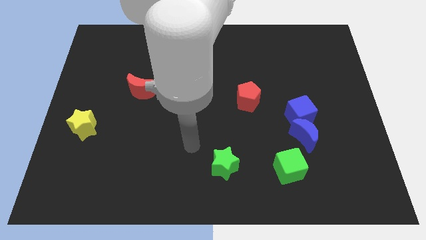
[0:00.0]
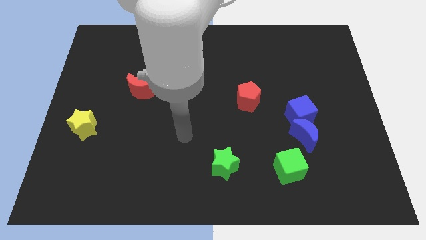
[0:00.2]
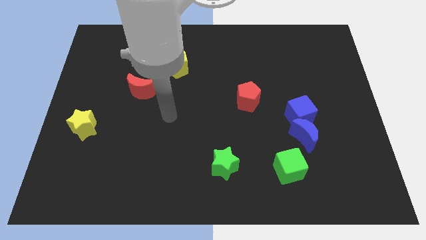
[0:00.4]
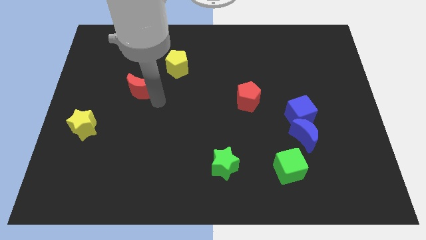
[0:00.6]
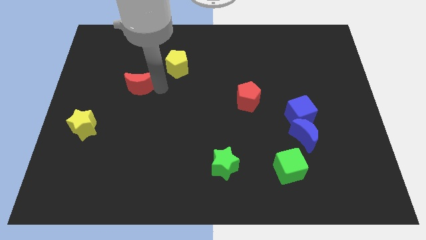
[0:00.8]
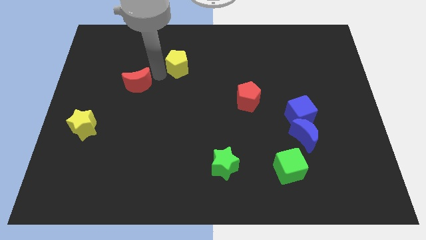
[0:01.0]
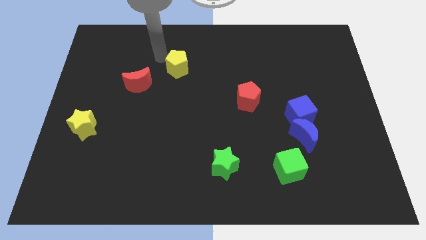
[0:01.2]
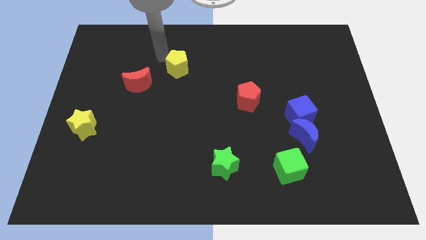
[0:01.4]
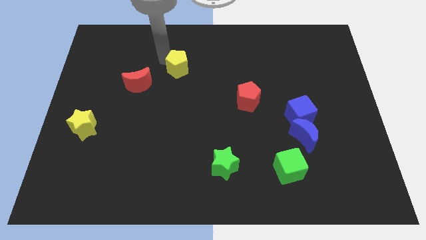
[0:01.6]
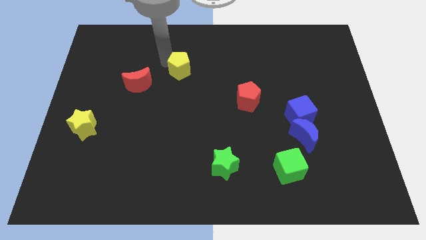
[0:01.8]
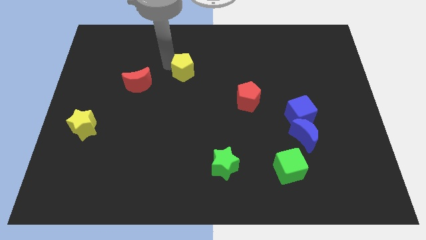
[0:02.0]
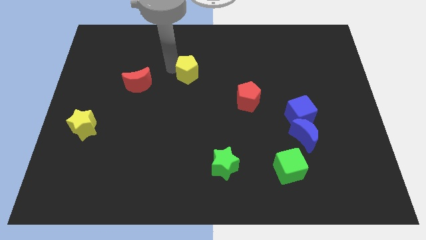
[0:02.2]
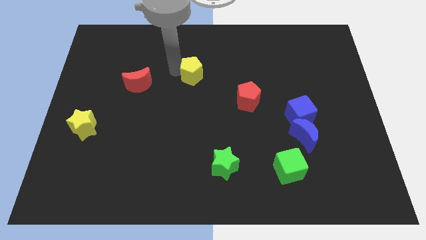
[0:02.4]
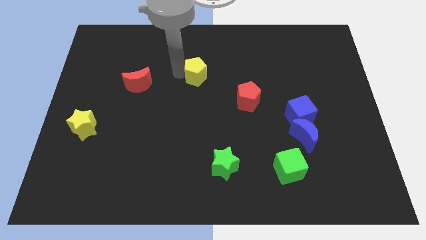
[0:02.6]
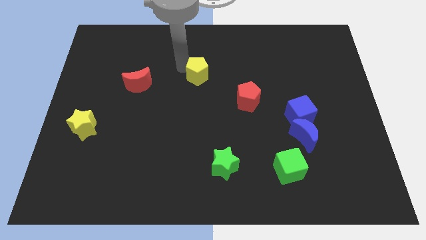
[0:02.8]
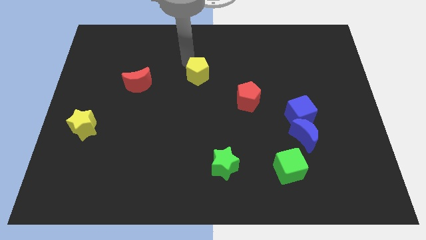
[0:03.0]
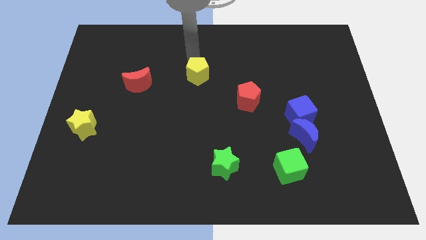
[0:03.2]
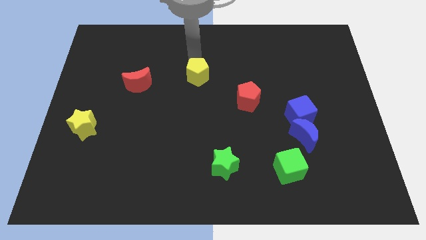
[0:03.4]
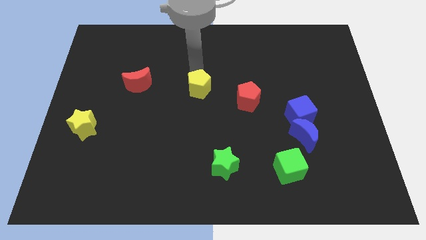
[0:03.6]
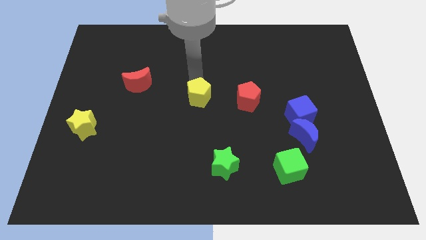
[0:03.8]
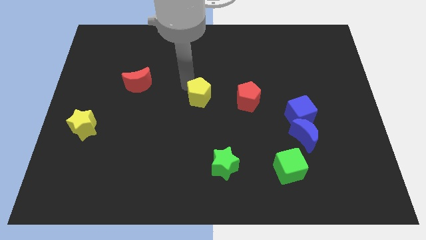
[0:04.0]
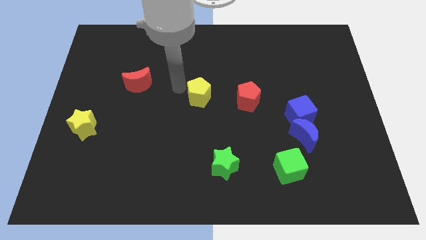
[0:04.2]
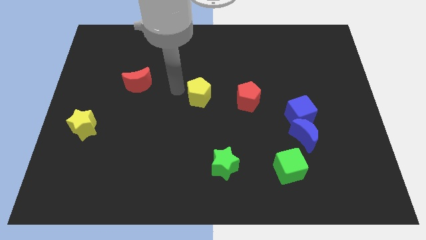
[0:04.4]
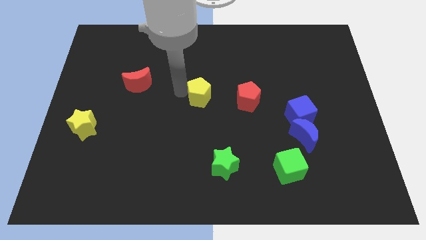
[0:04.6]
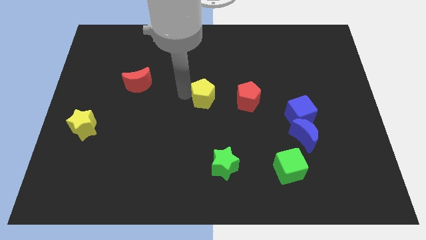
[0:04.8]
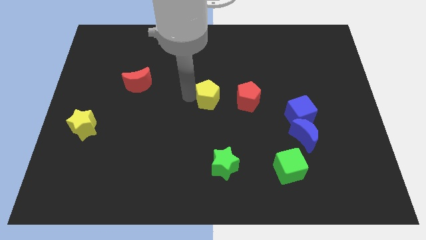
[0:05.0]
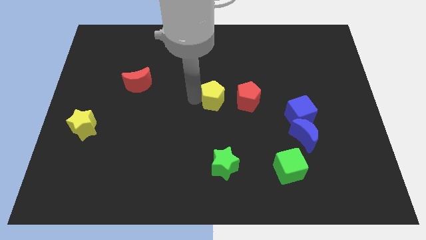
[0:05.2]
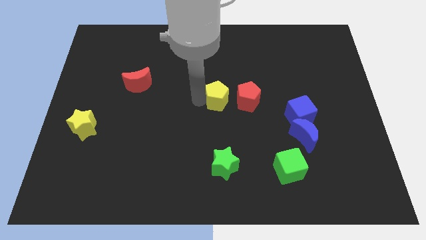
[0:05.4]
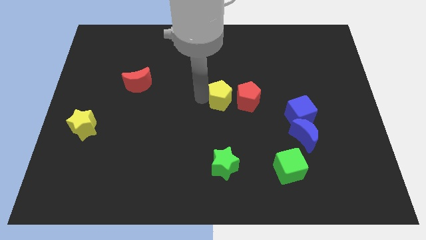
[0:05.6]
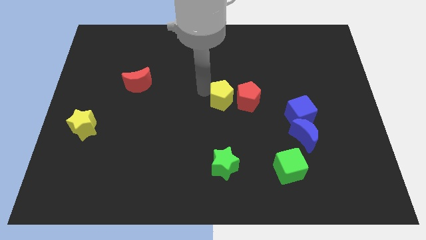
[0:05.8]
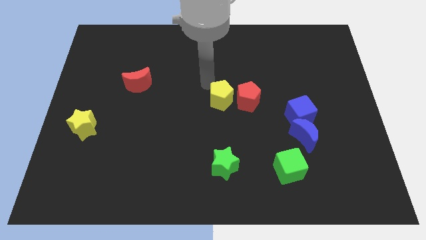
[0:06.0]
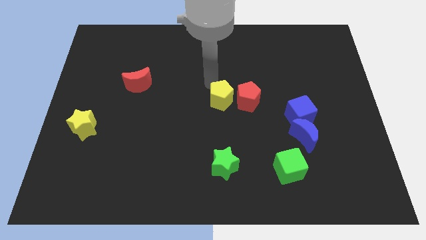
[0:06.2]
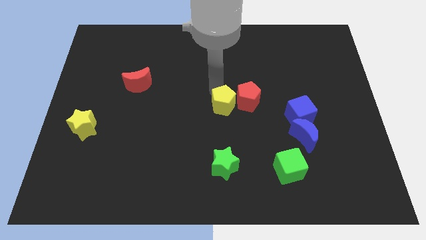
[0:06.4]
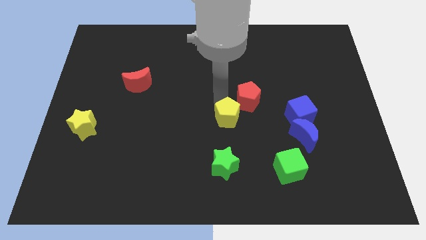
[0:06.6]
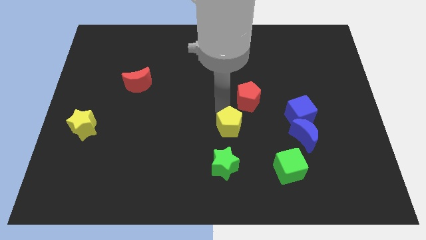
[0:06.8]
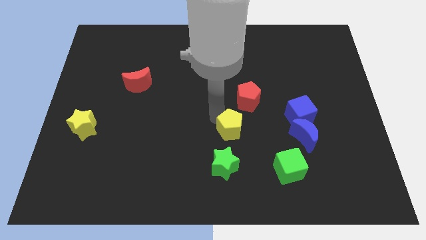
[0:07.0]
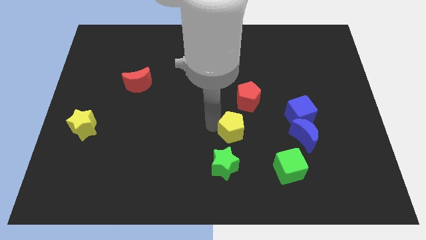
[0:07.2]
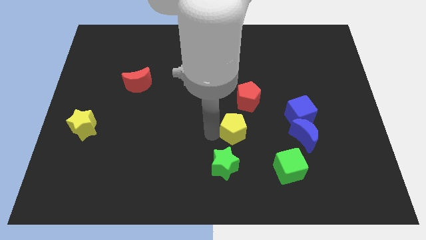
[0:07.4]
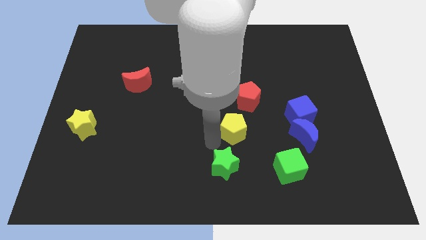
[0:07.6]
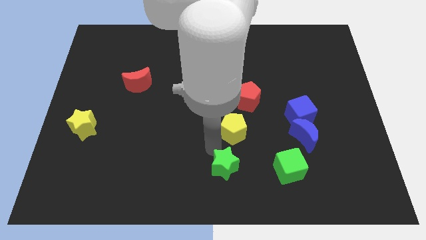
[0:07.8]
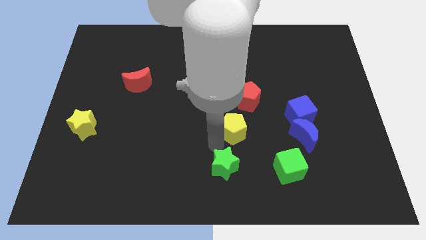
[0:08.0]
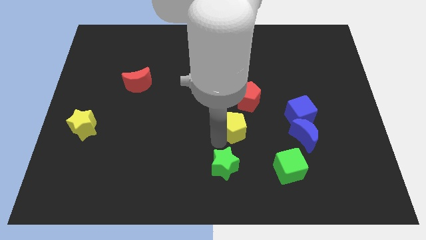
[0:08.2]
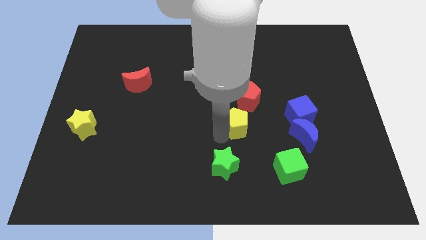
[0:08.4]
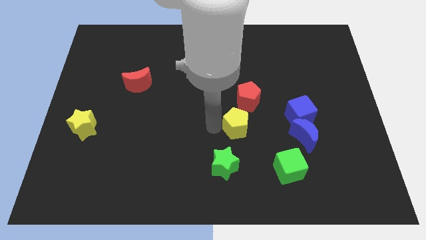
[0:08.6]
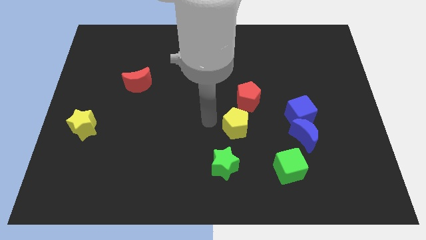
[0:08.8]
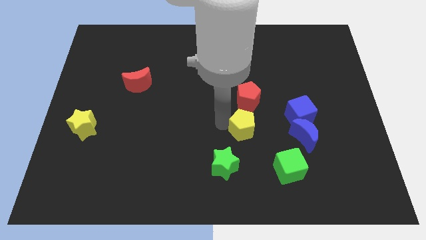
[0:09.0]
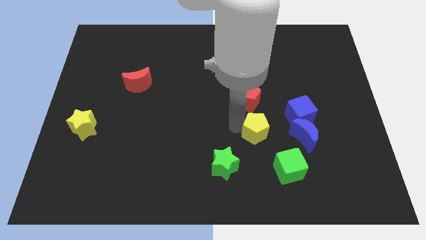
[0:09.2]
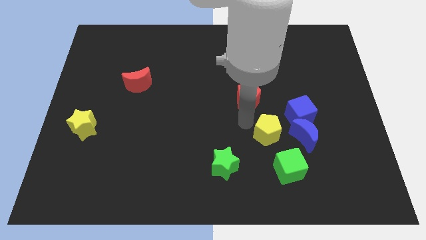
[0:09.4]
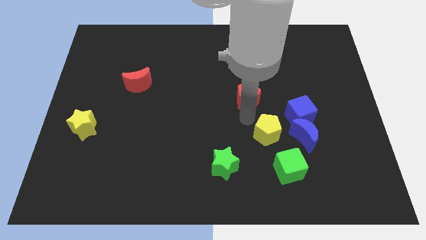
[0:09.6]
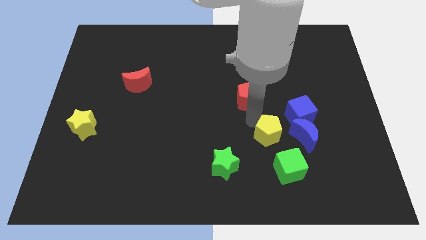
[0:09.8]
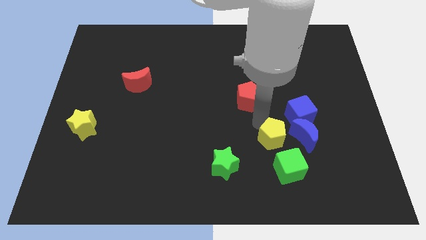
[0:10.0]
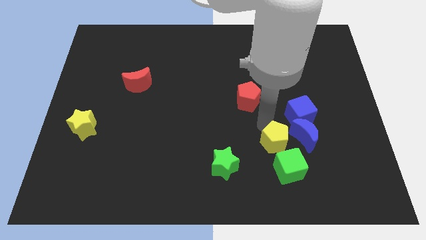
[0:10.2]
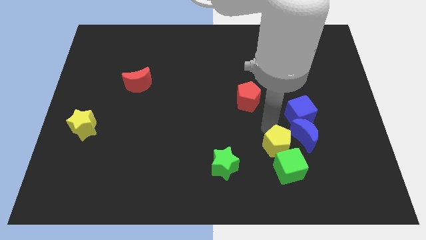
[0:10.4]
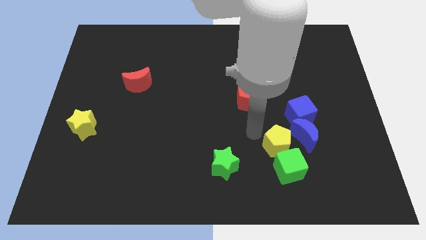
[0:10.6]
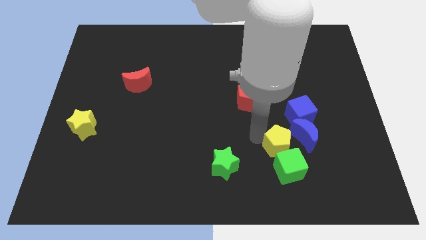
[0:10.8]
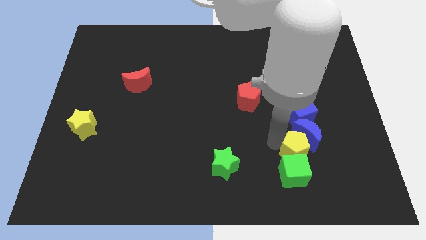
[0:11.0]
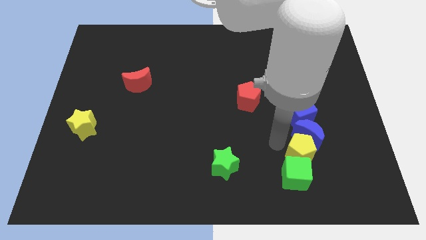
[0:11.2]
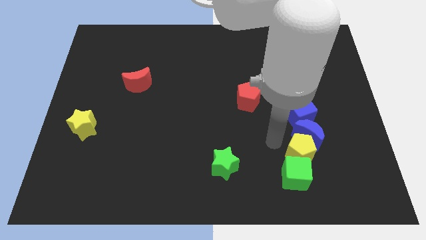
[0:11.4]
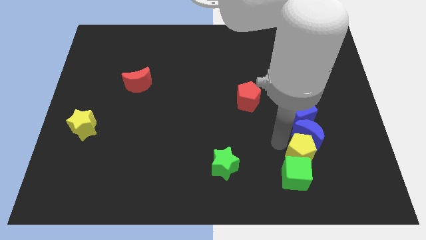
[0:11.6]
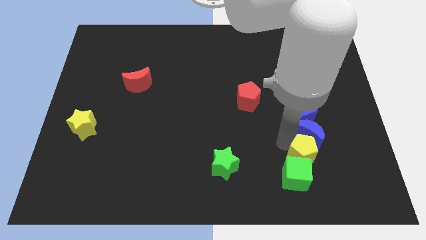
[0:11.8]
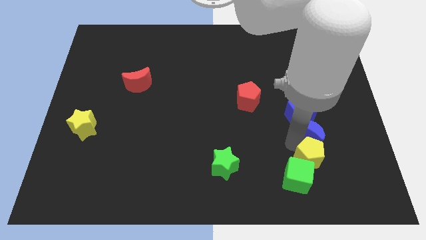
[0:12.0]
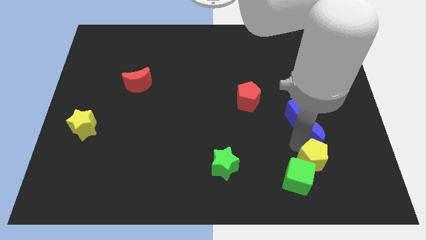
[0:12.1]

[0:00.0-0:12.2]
move the yellow pentagon just right of the green cube
